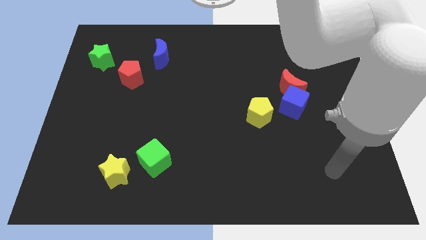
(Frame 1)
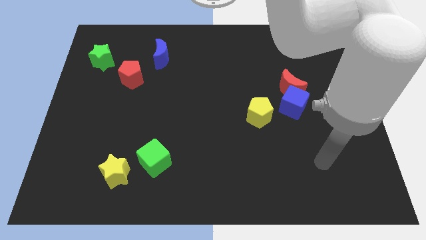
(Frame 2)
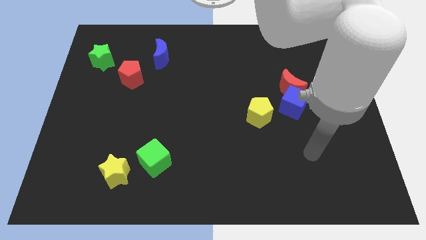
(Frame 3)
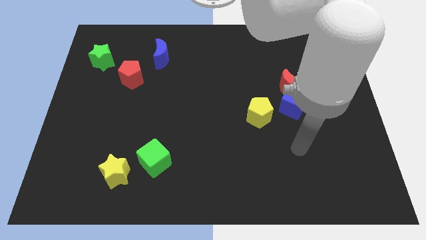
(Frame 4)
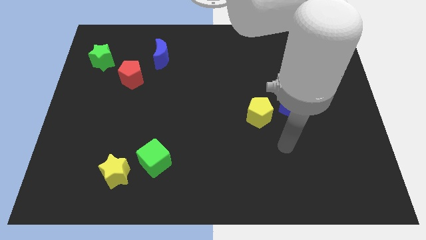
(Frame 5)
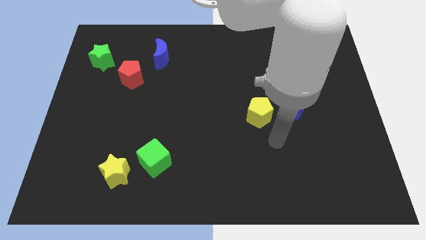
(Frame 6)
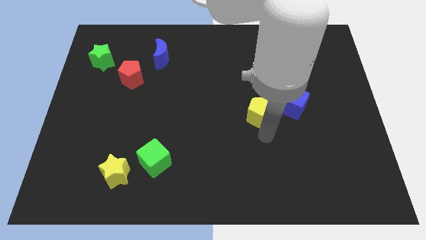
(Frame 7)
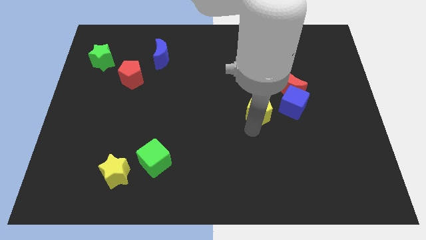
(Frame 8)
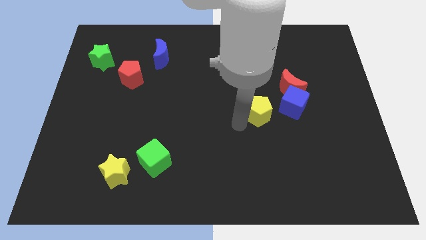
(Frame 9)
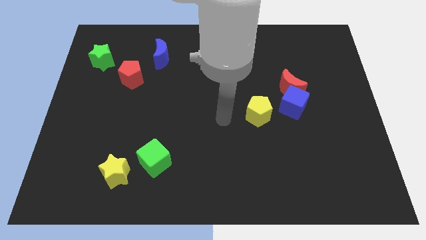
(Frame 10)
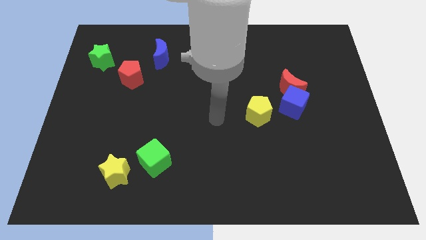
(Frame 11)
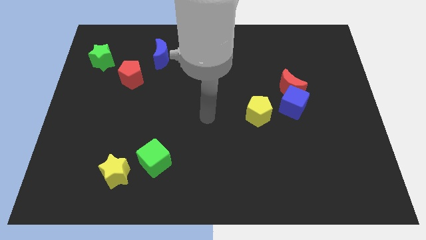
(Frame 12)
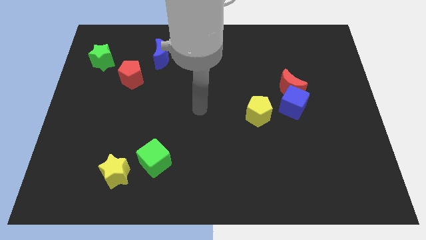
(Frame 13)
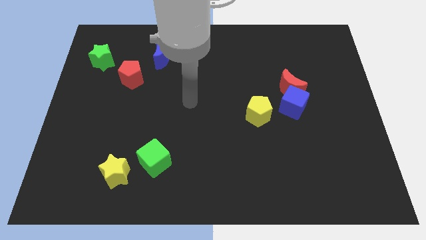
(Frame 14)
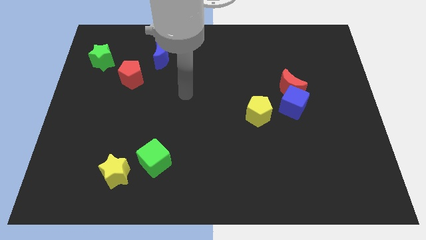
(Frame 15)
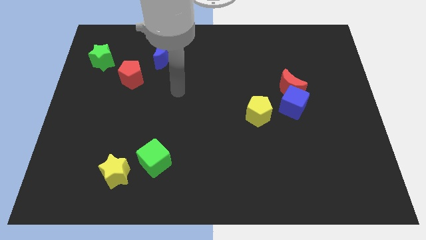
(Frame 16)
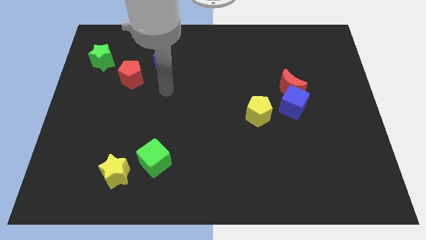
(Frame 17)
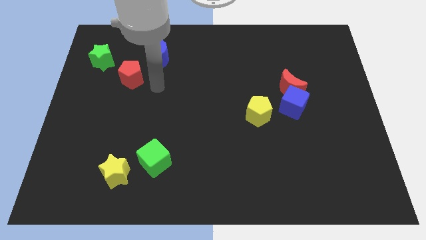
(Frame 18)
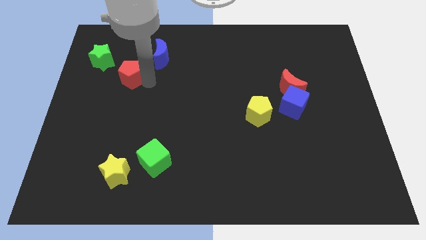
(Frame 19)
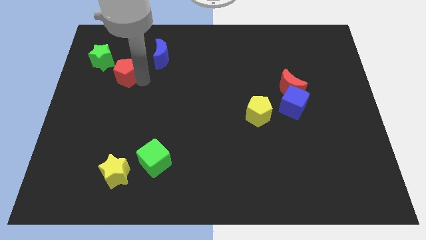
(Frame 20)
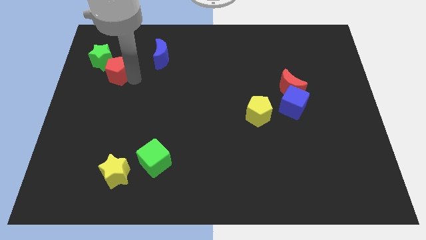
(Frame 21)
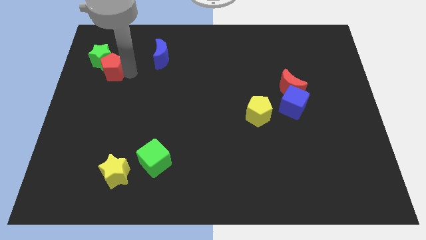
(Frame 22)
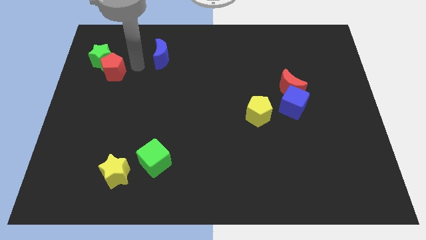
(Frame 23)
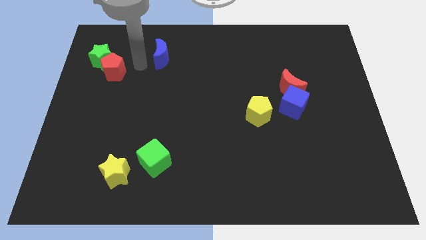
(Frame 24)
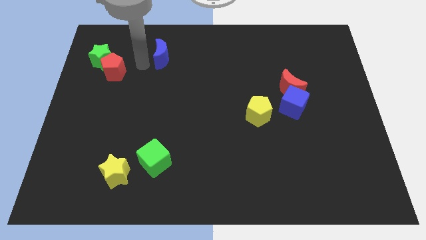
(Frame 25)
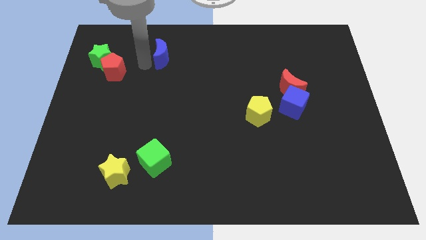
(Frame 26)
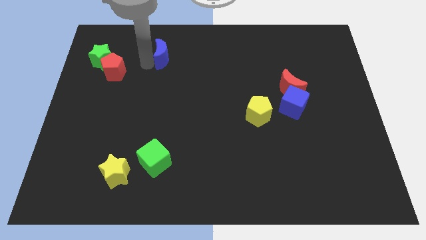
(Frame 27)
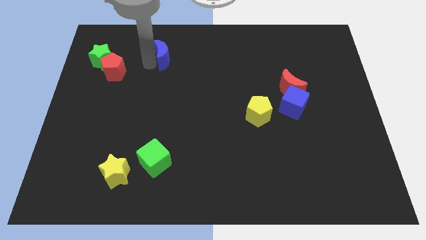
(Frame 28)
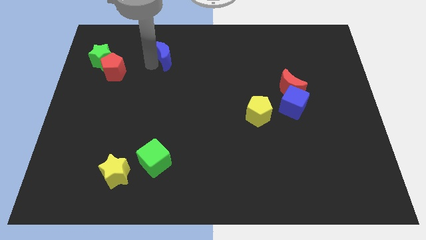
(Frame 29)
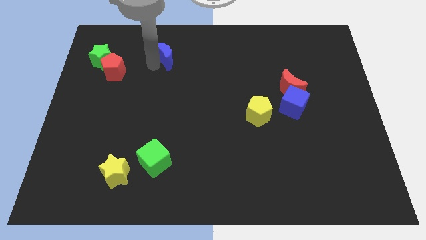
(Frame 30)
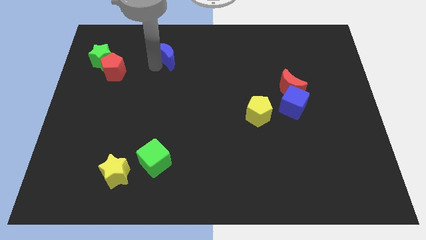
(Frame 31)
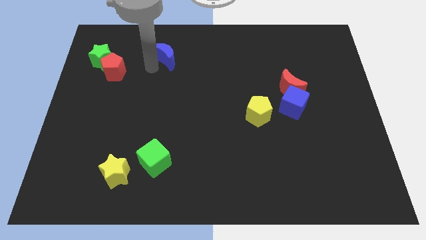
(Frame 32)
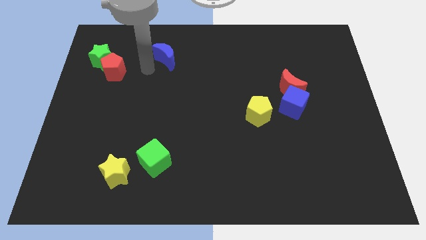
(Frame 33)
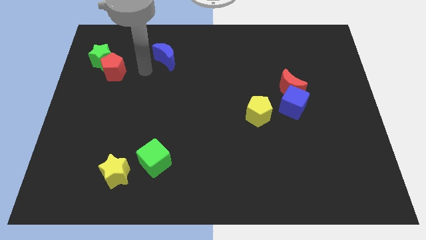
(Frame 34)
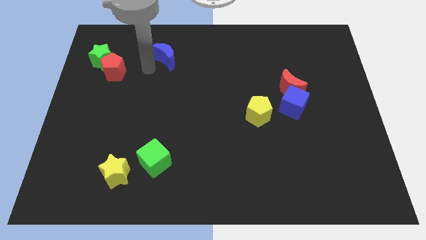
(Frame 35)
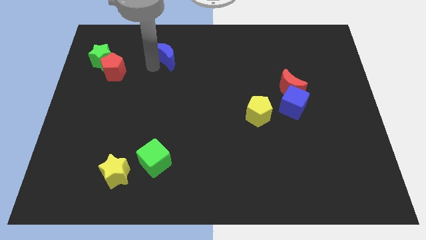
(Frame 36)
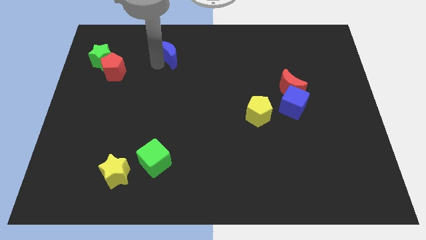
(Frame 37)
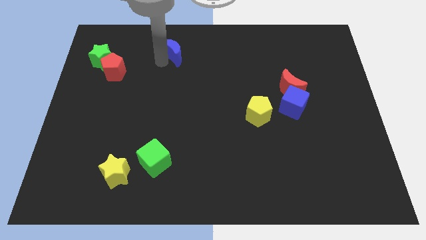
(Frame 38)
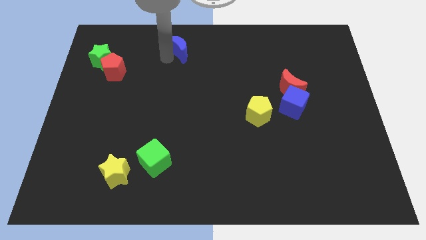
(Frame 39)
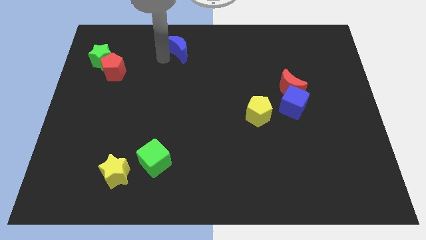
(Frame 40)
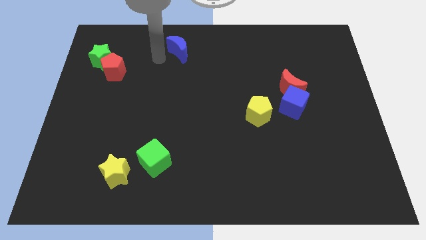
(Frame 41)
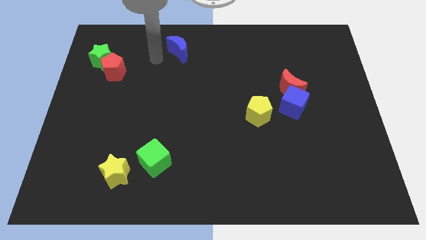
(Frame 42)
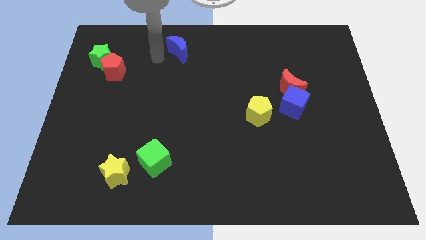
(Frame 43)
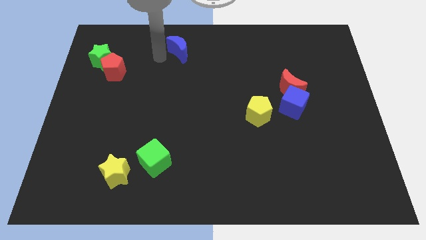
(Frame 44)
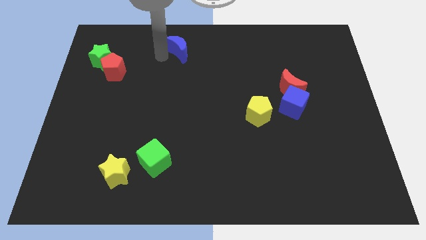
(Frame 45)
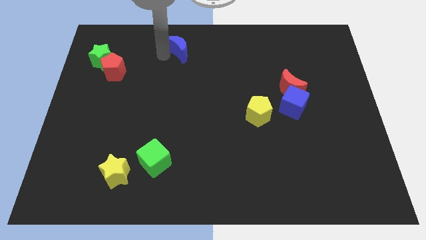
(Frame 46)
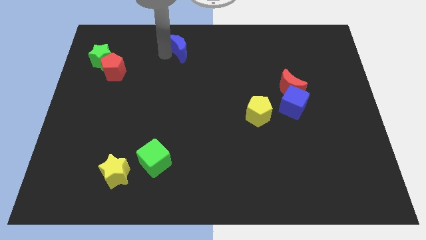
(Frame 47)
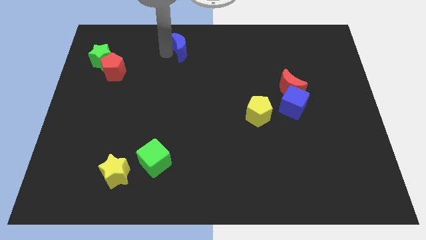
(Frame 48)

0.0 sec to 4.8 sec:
put the blue moon to the top side

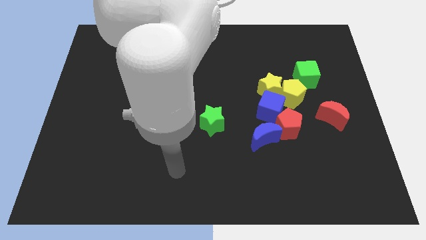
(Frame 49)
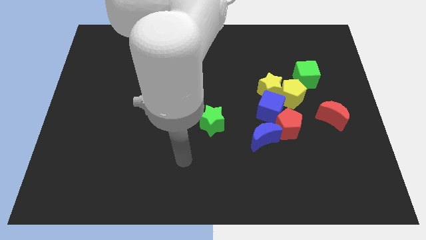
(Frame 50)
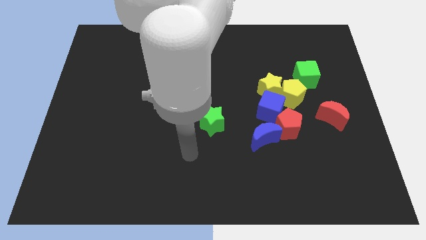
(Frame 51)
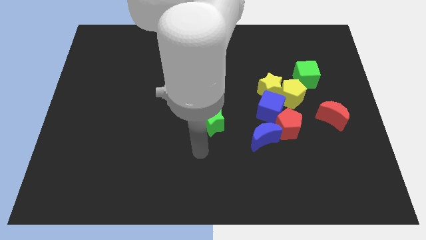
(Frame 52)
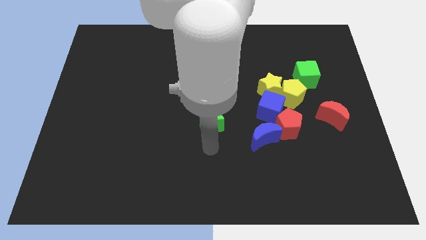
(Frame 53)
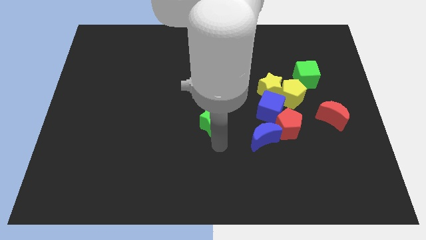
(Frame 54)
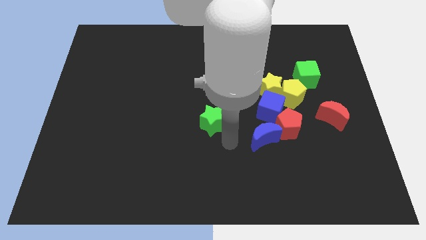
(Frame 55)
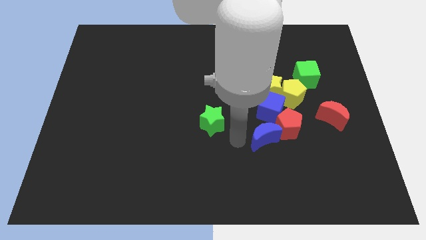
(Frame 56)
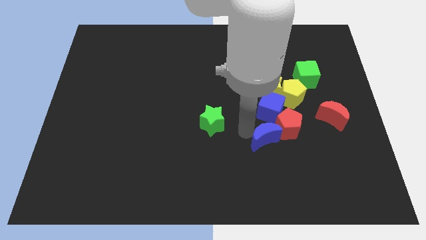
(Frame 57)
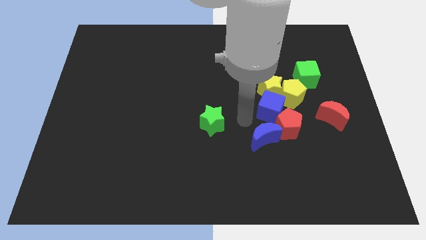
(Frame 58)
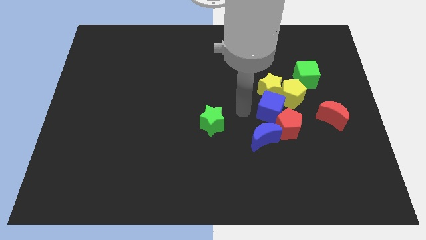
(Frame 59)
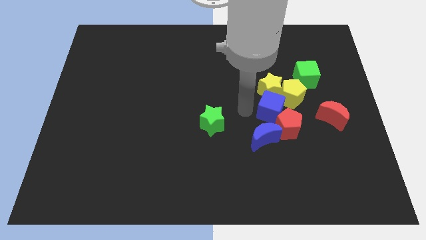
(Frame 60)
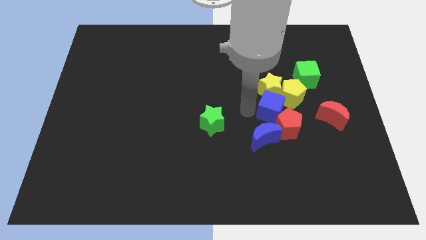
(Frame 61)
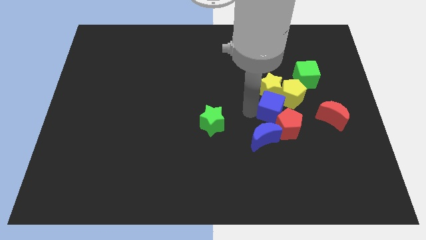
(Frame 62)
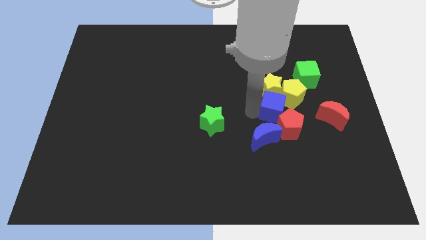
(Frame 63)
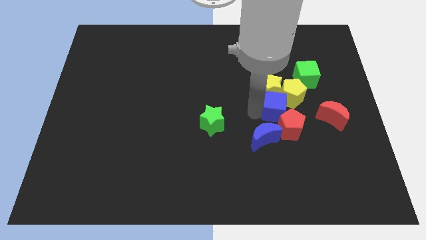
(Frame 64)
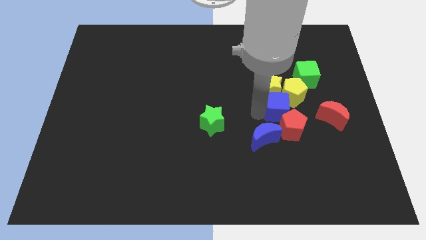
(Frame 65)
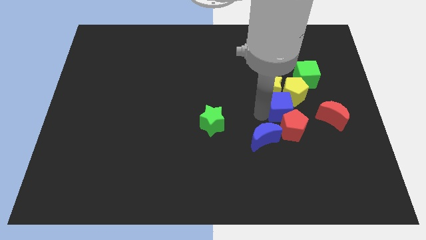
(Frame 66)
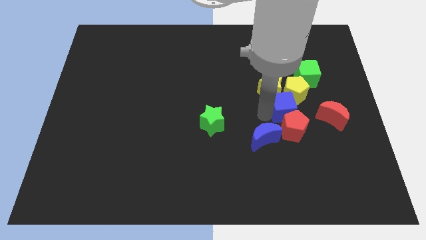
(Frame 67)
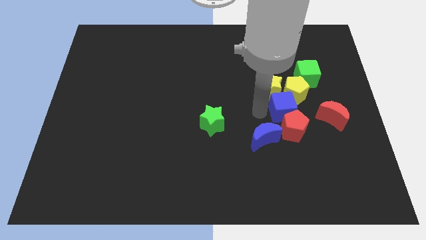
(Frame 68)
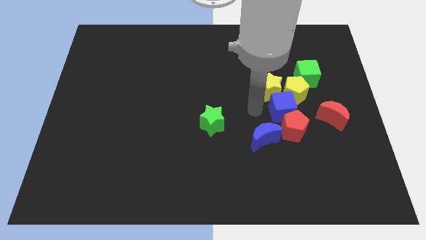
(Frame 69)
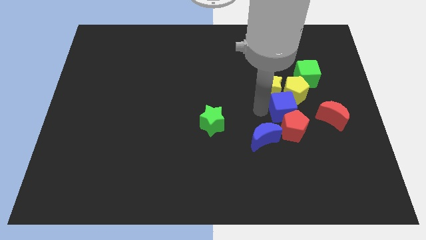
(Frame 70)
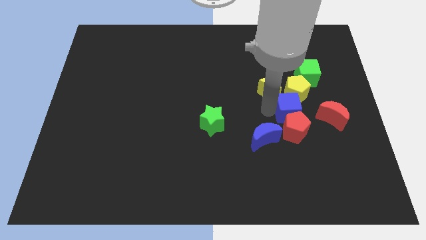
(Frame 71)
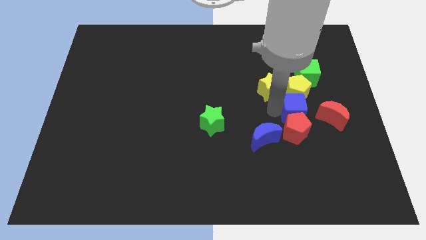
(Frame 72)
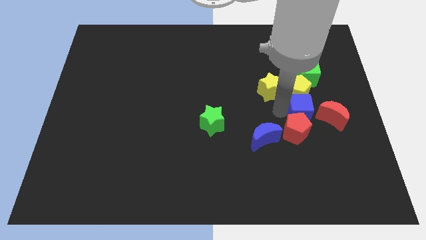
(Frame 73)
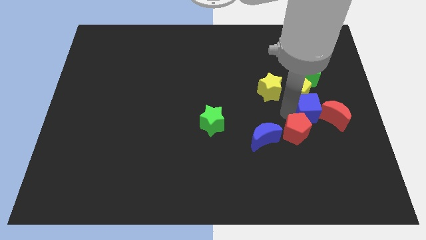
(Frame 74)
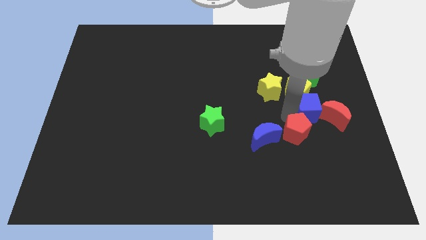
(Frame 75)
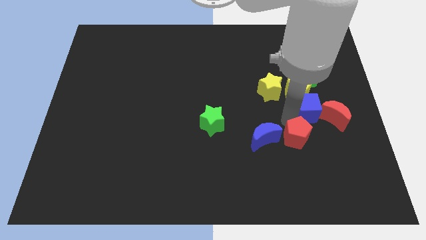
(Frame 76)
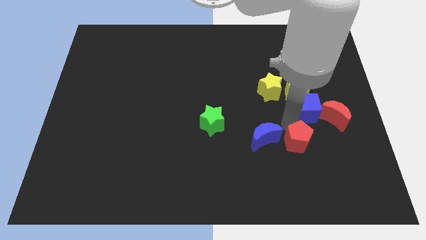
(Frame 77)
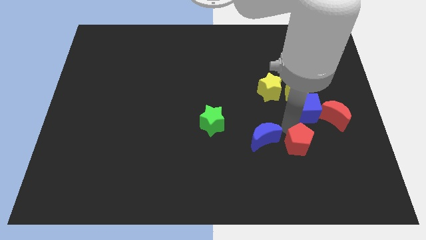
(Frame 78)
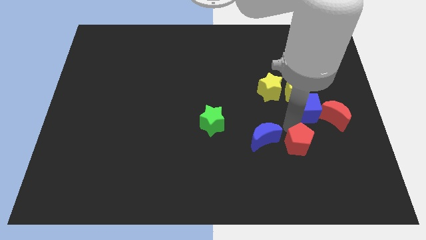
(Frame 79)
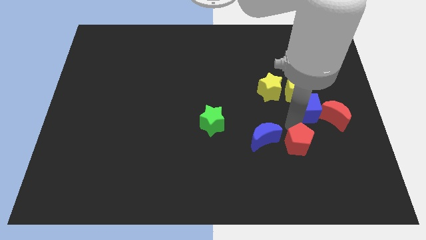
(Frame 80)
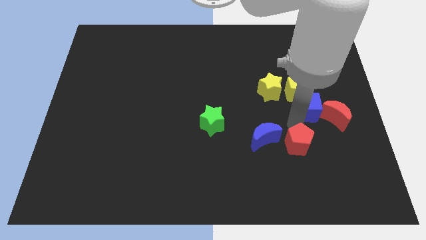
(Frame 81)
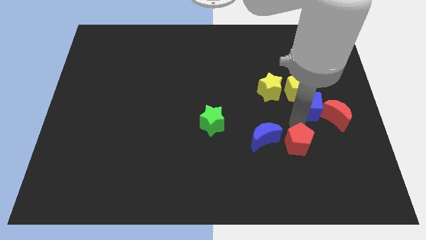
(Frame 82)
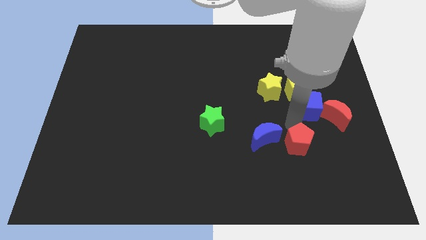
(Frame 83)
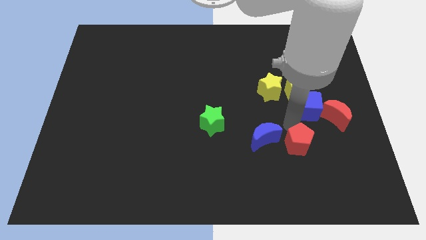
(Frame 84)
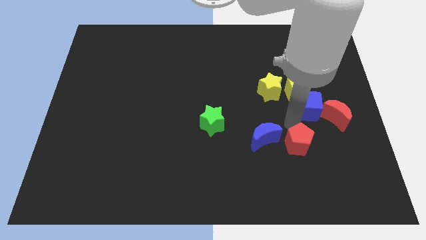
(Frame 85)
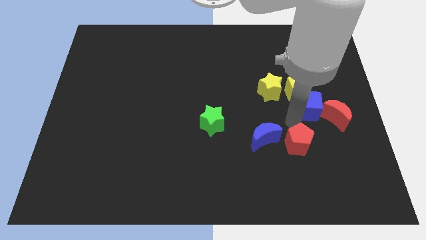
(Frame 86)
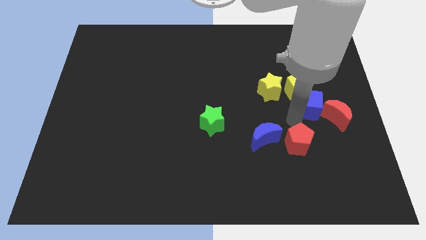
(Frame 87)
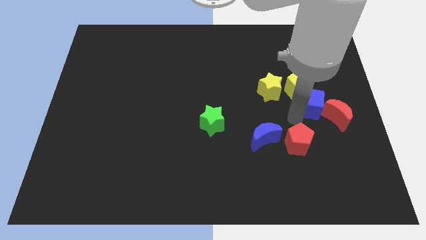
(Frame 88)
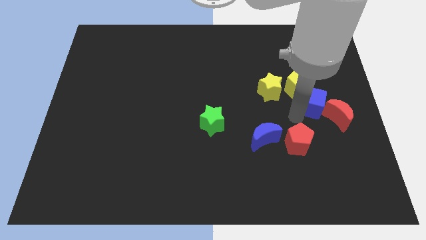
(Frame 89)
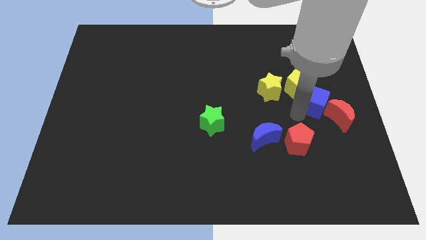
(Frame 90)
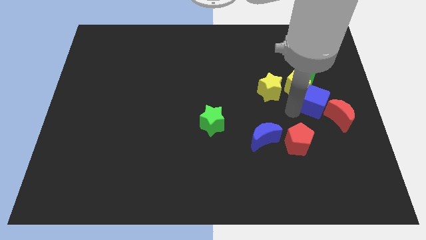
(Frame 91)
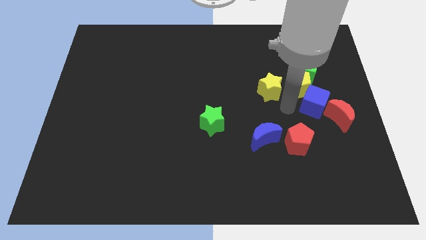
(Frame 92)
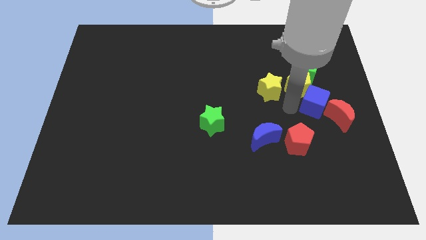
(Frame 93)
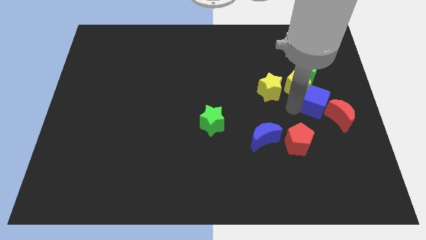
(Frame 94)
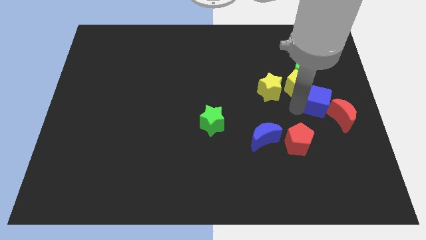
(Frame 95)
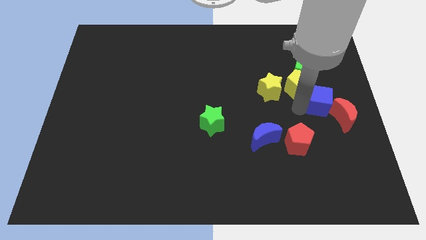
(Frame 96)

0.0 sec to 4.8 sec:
slide the blue cube to the right side of the board
